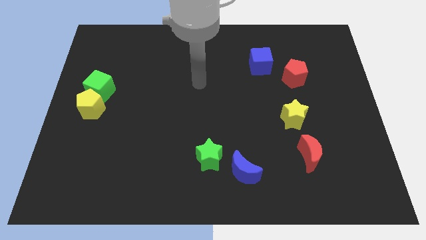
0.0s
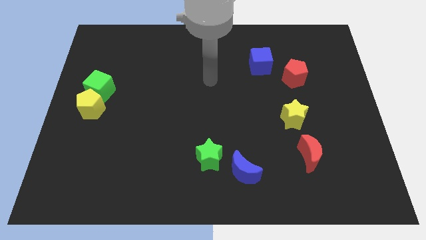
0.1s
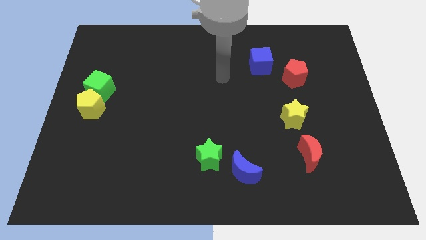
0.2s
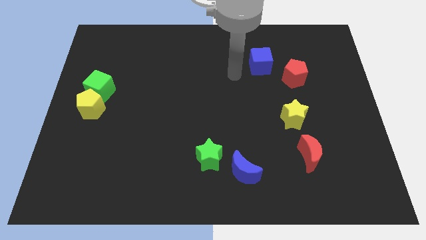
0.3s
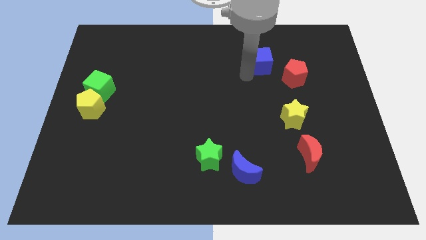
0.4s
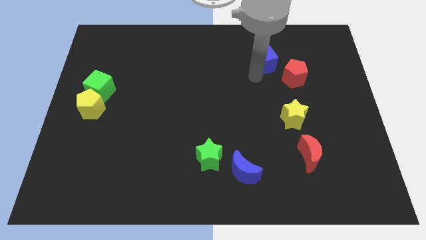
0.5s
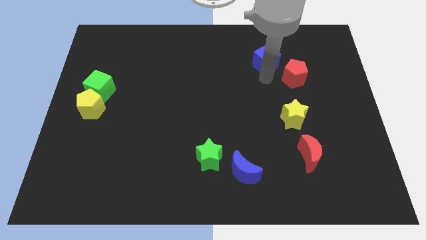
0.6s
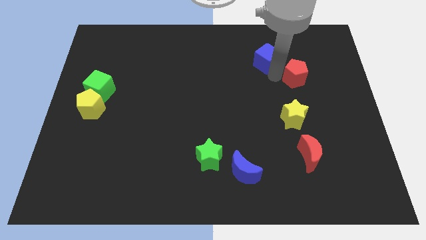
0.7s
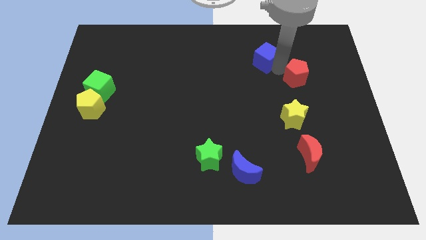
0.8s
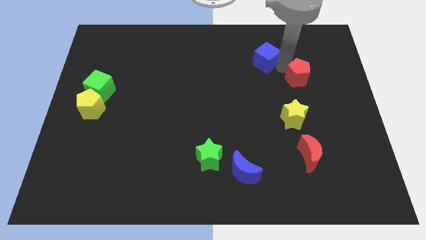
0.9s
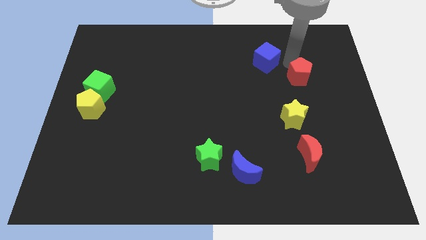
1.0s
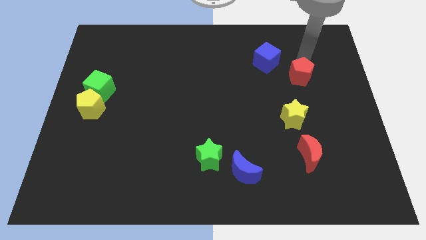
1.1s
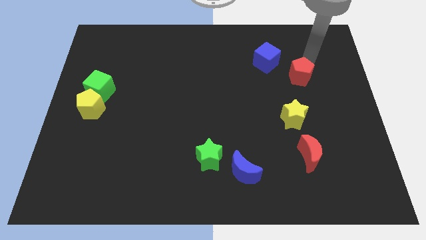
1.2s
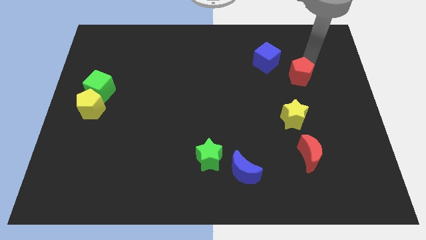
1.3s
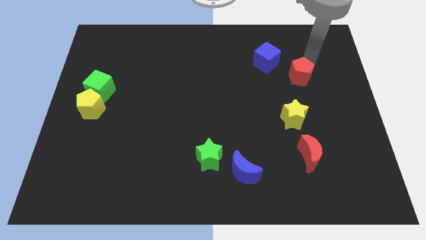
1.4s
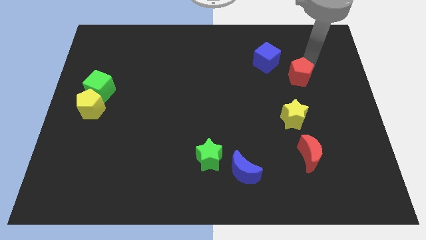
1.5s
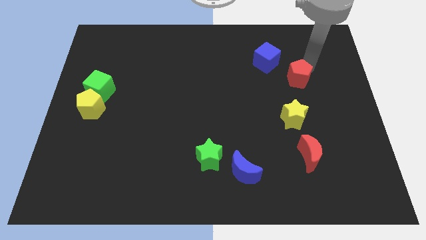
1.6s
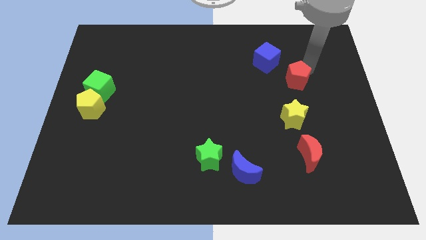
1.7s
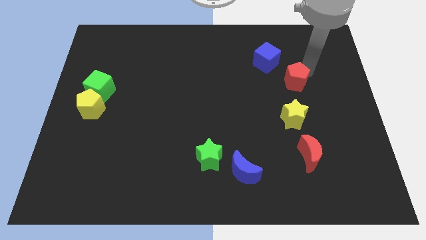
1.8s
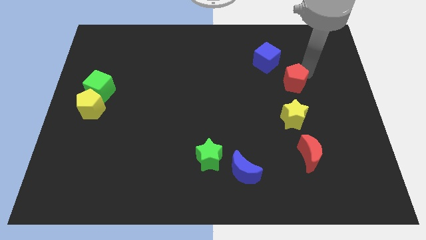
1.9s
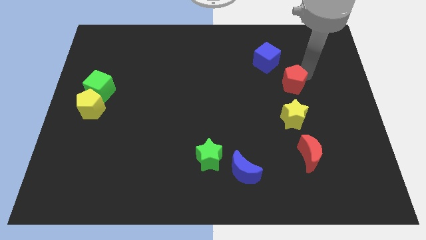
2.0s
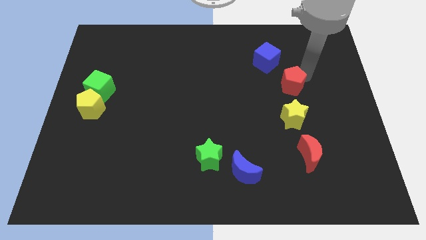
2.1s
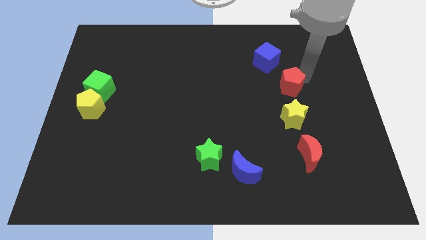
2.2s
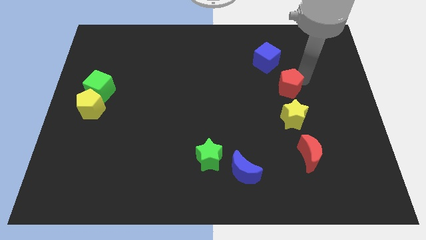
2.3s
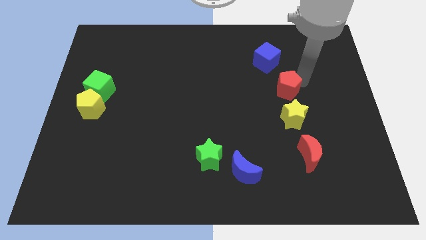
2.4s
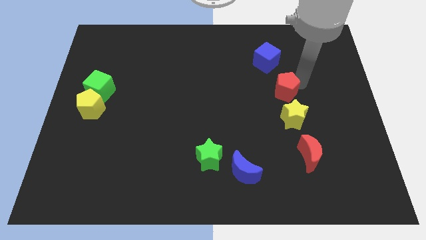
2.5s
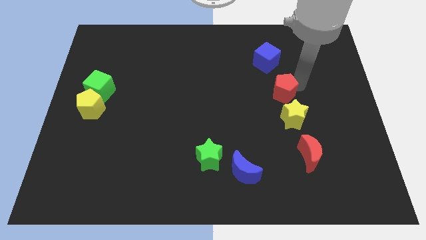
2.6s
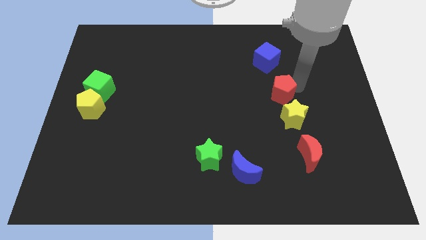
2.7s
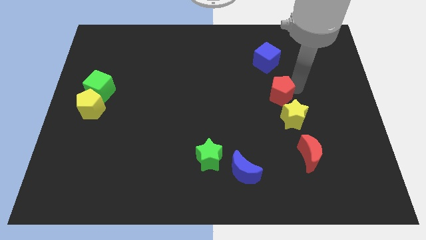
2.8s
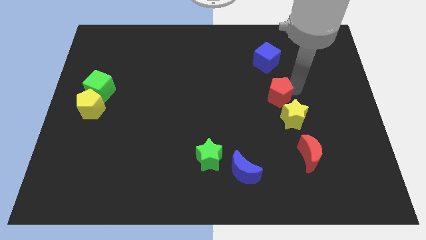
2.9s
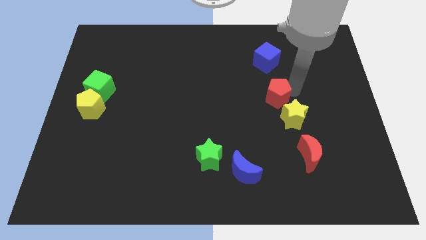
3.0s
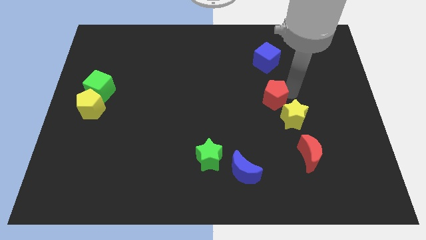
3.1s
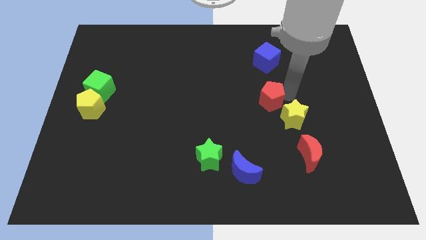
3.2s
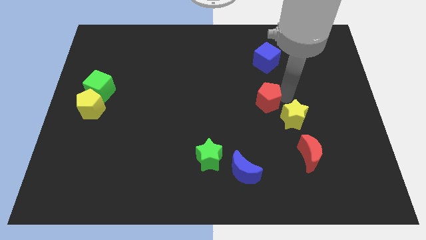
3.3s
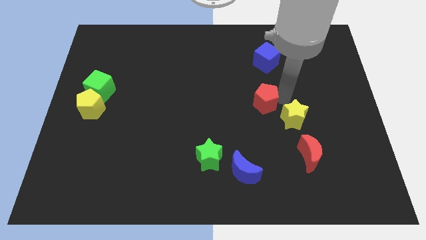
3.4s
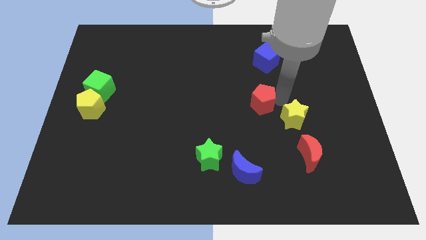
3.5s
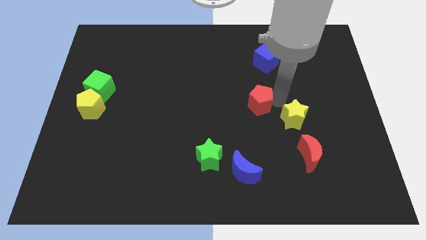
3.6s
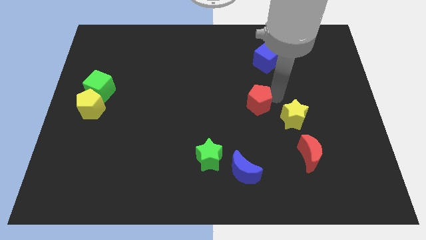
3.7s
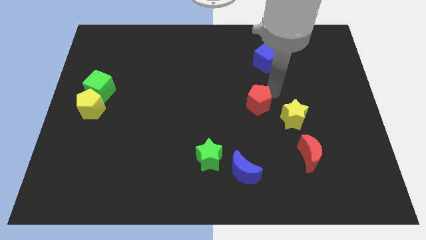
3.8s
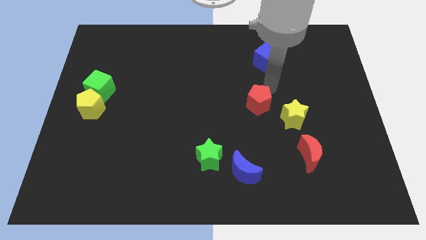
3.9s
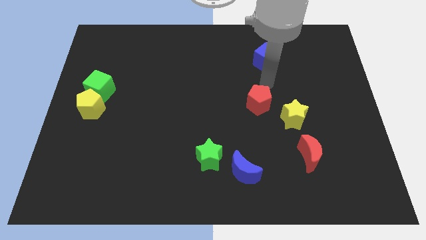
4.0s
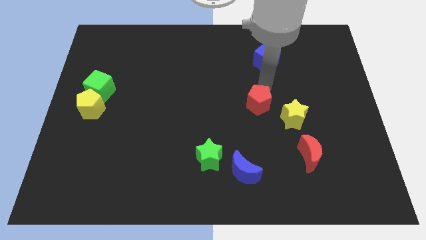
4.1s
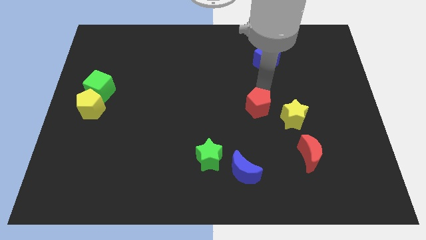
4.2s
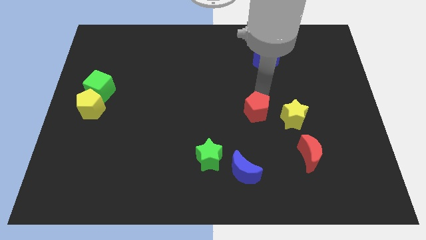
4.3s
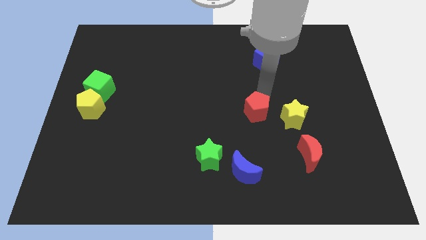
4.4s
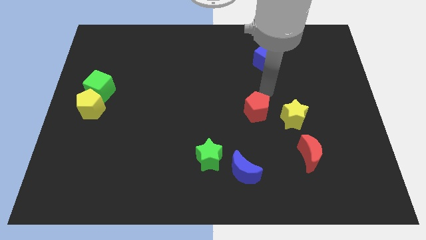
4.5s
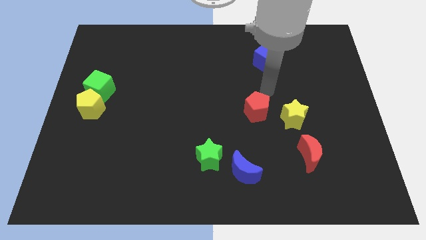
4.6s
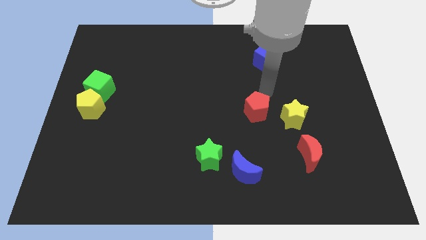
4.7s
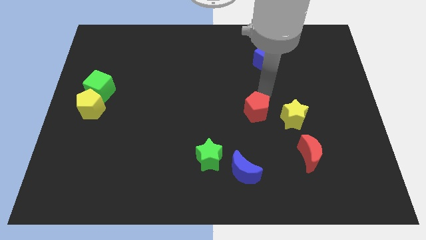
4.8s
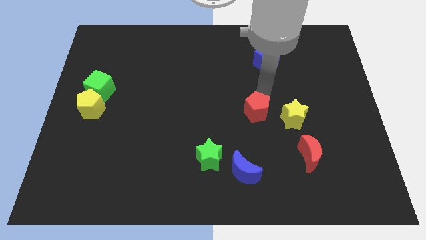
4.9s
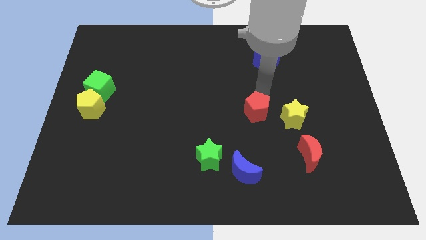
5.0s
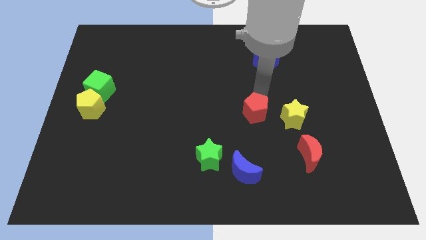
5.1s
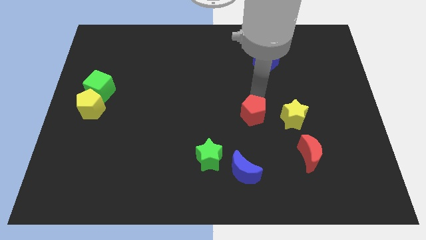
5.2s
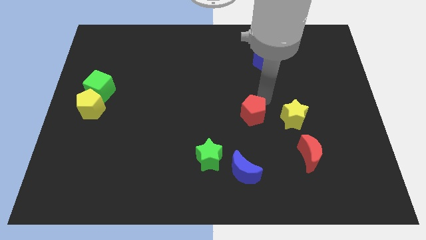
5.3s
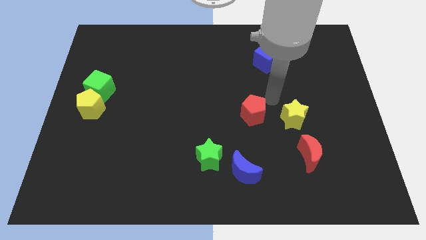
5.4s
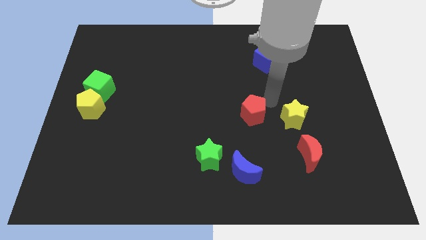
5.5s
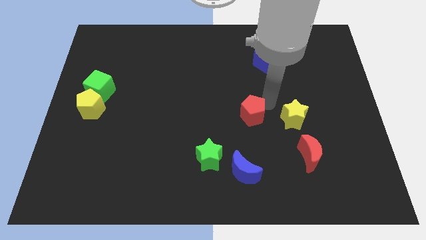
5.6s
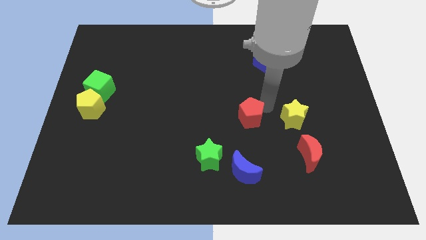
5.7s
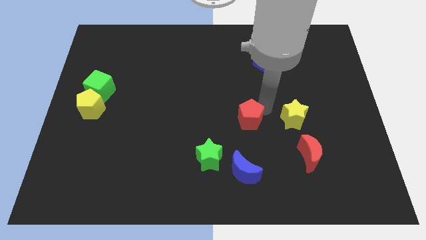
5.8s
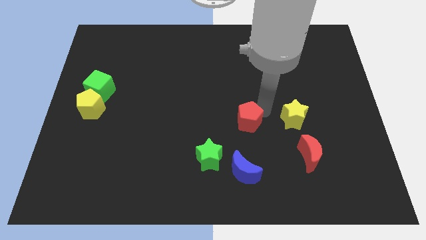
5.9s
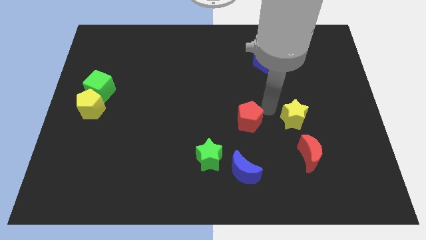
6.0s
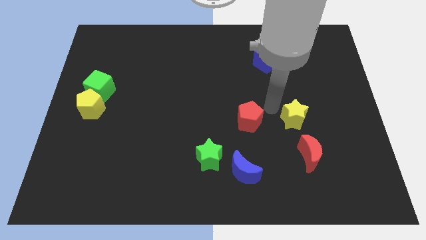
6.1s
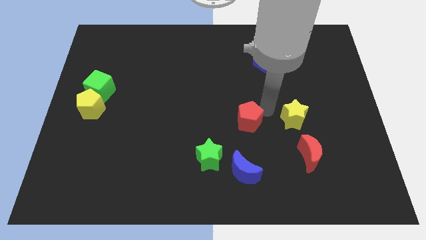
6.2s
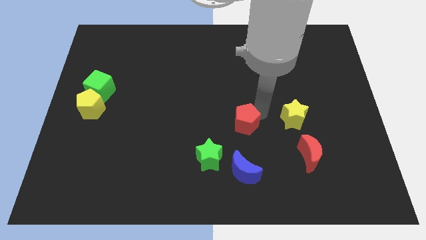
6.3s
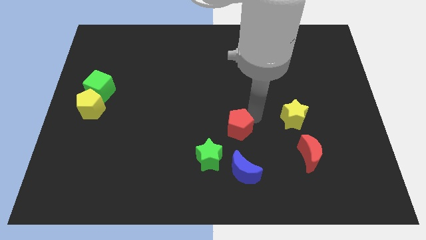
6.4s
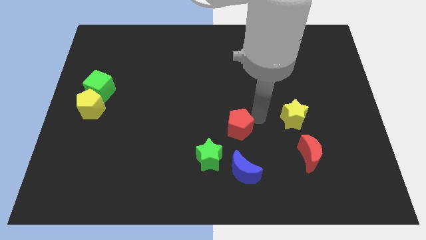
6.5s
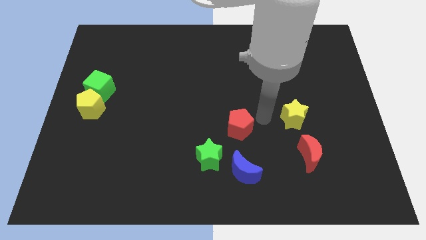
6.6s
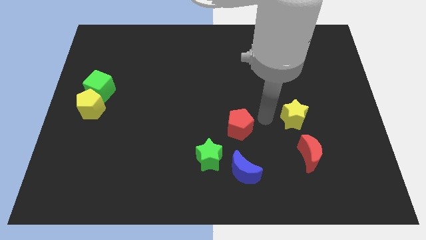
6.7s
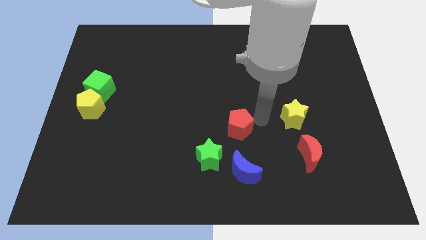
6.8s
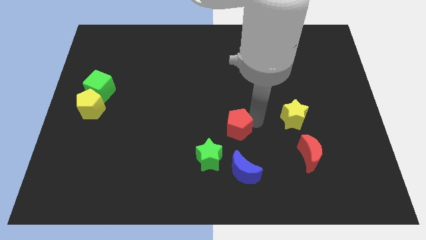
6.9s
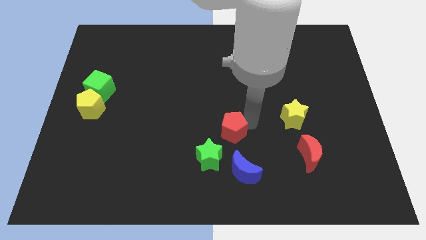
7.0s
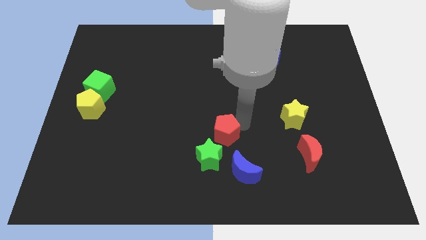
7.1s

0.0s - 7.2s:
put the red pentagon diagonally up and to the left of the blue moon

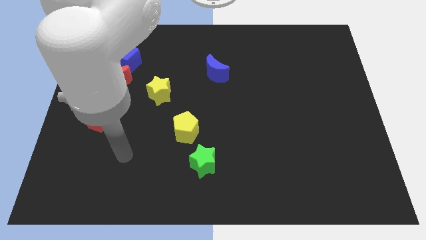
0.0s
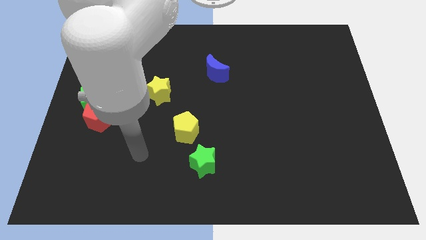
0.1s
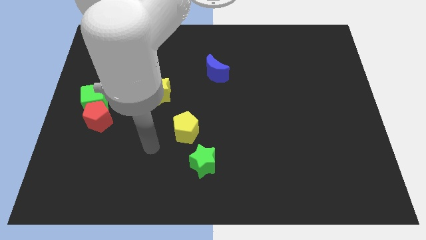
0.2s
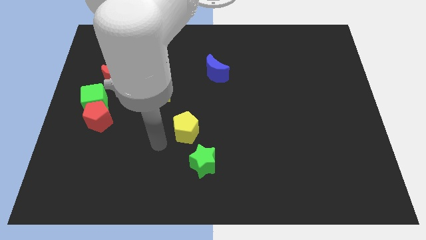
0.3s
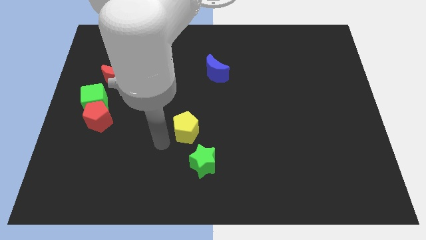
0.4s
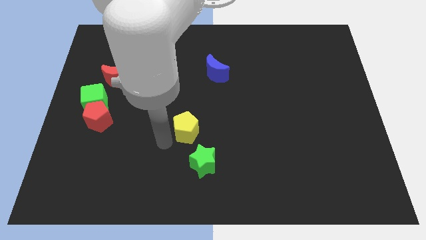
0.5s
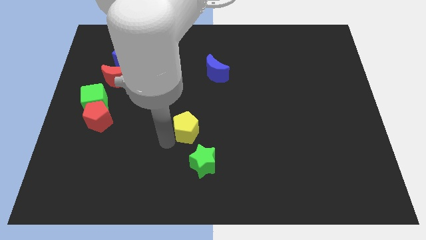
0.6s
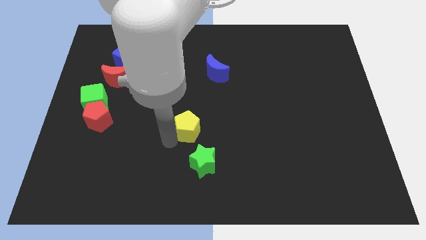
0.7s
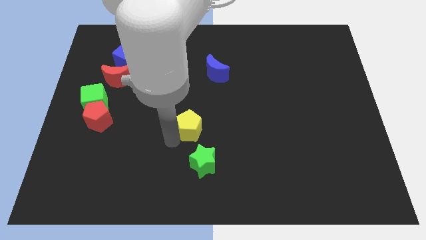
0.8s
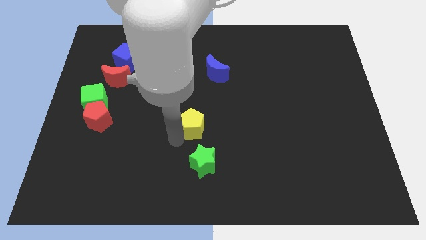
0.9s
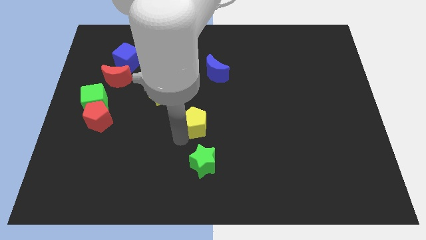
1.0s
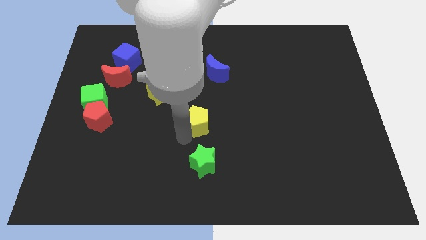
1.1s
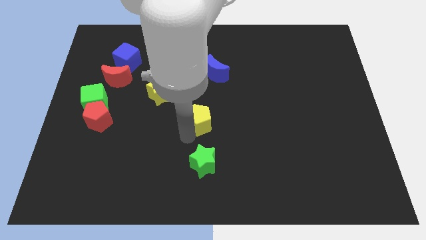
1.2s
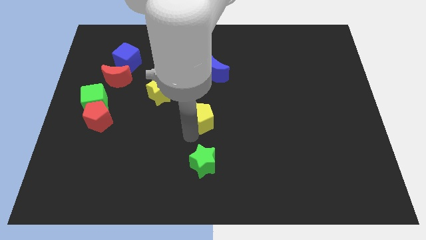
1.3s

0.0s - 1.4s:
push the yellow pentagon below the blue moon
